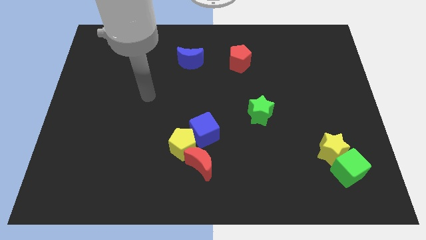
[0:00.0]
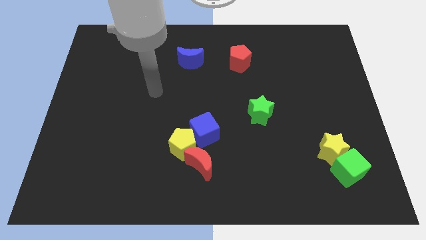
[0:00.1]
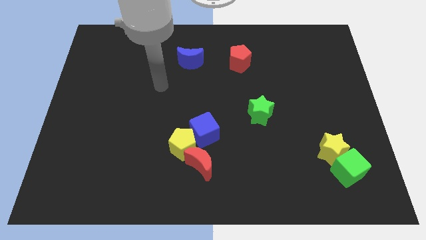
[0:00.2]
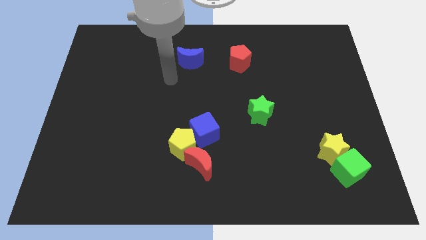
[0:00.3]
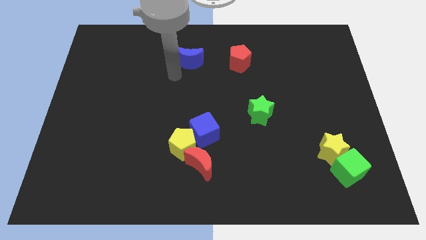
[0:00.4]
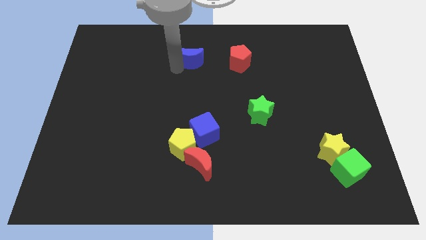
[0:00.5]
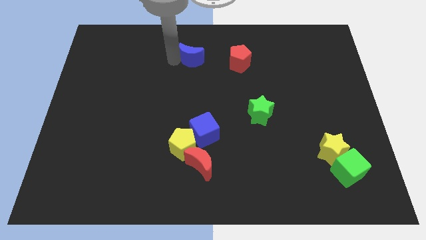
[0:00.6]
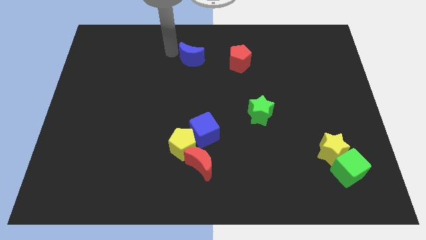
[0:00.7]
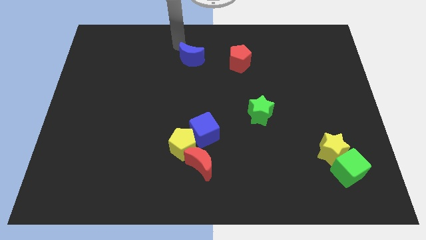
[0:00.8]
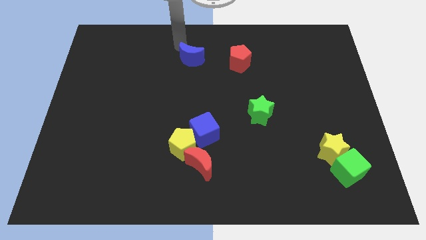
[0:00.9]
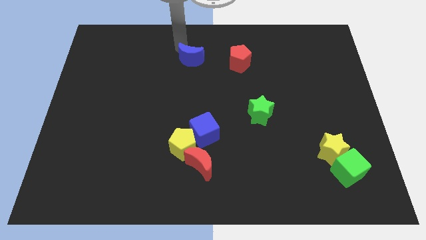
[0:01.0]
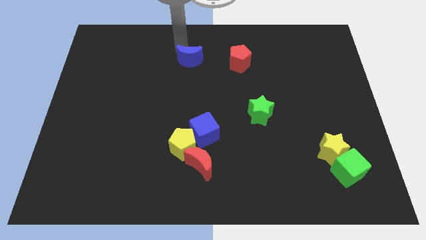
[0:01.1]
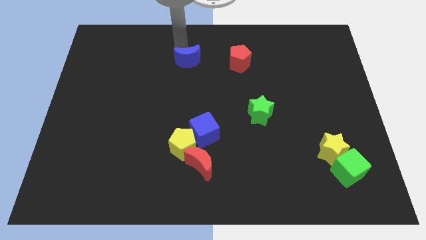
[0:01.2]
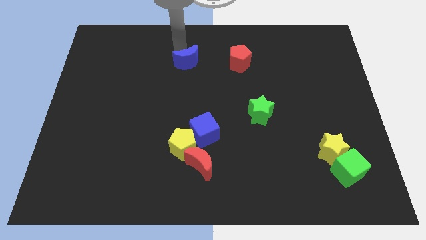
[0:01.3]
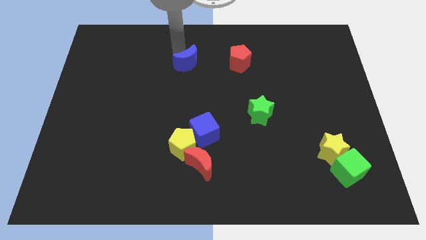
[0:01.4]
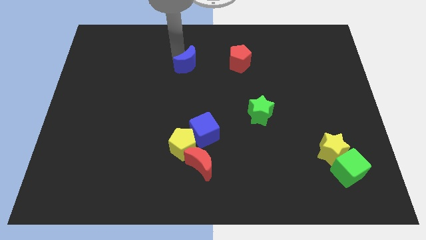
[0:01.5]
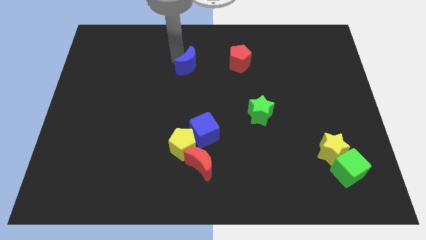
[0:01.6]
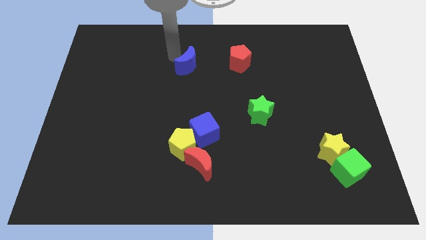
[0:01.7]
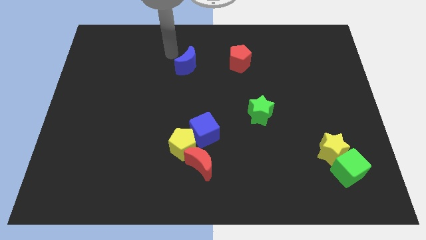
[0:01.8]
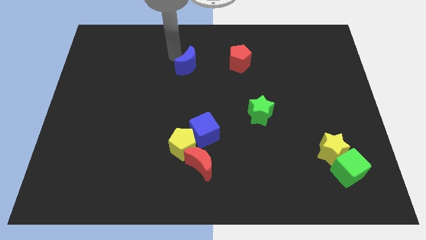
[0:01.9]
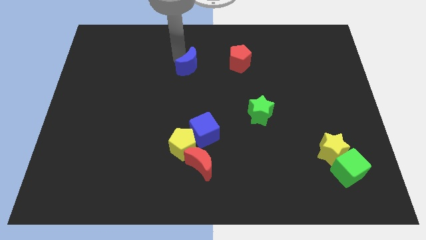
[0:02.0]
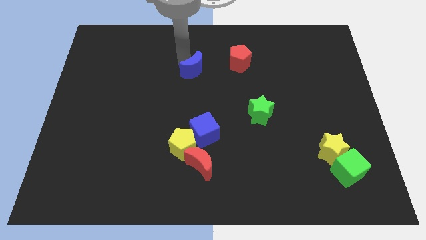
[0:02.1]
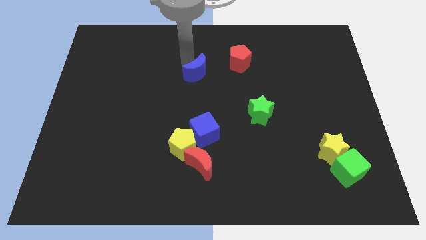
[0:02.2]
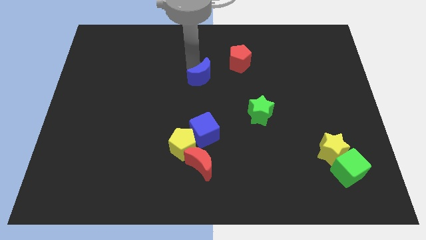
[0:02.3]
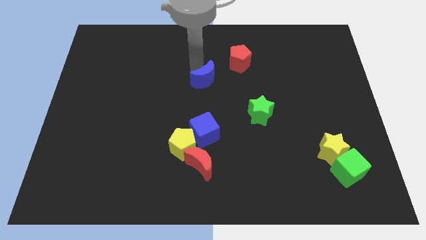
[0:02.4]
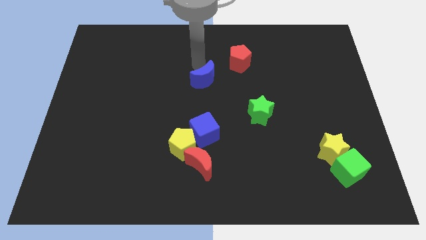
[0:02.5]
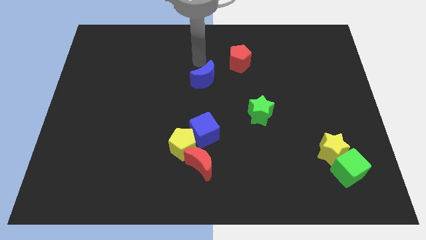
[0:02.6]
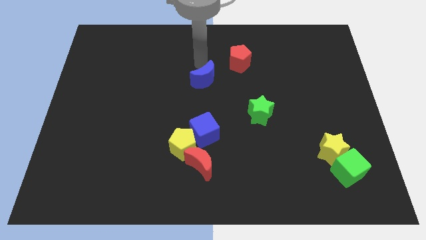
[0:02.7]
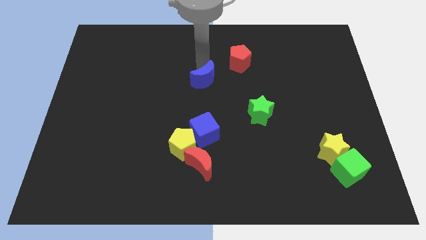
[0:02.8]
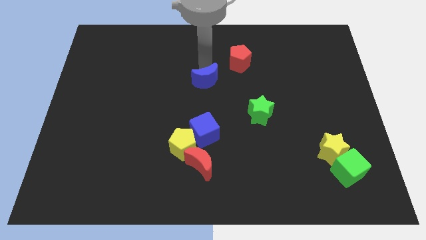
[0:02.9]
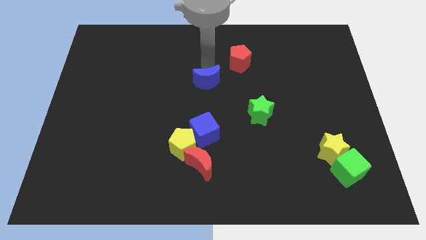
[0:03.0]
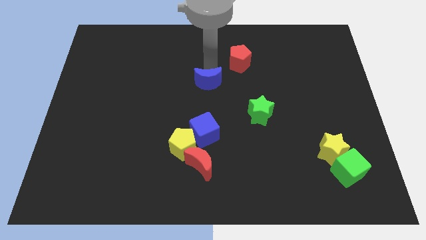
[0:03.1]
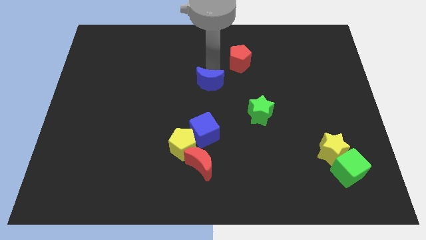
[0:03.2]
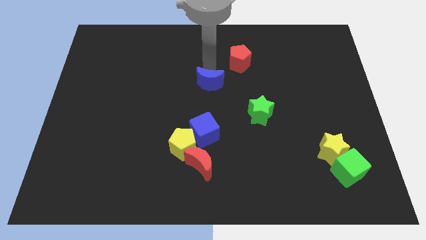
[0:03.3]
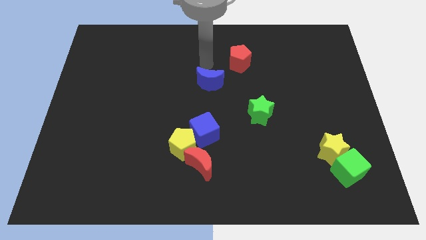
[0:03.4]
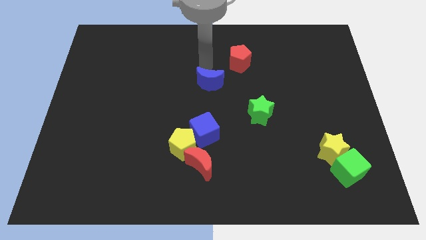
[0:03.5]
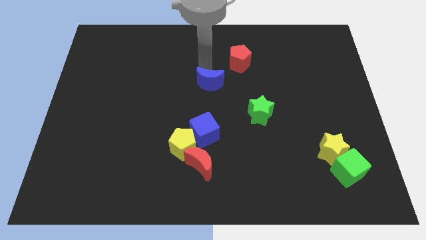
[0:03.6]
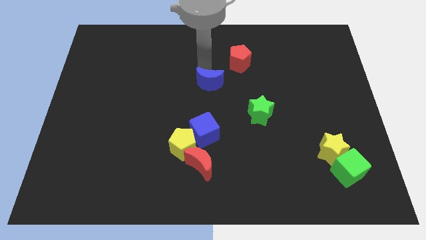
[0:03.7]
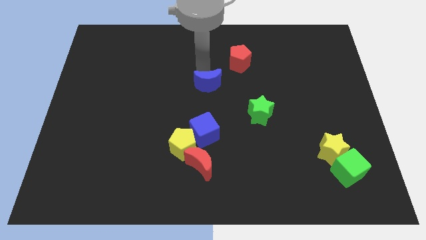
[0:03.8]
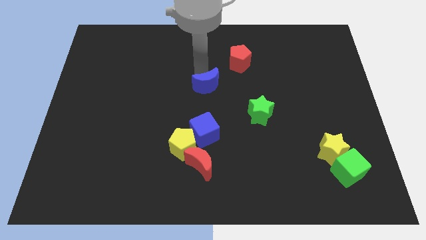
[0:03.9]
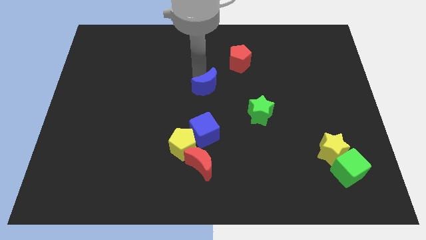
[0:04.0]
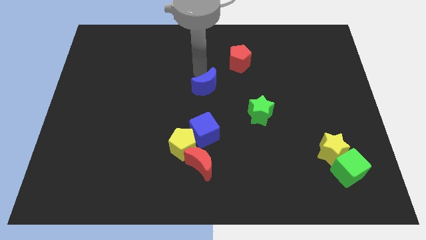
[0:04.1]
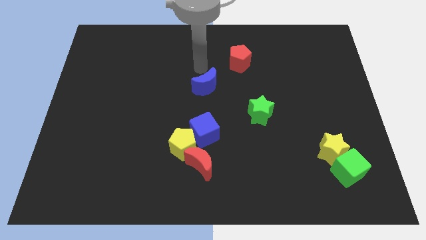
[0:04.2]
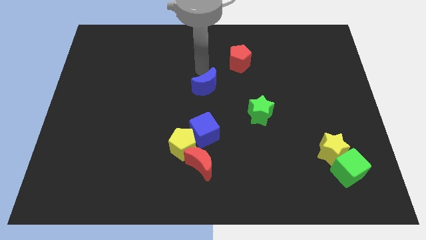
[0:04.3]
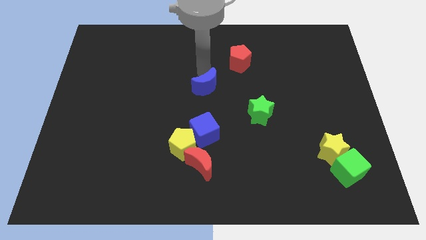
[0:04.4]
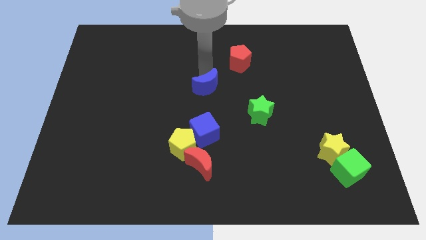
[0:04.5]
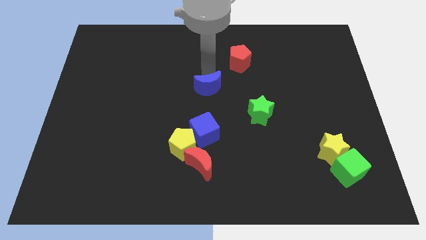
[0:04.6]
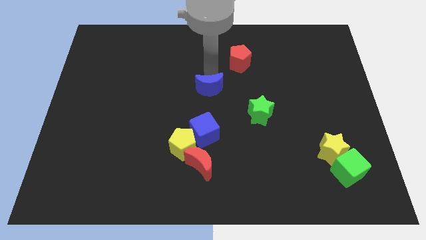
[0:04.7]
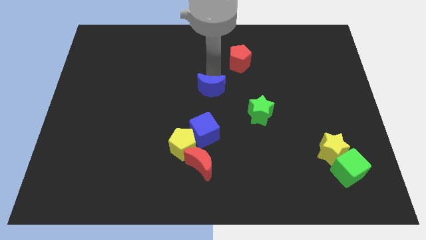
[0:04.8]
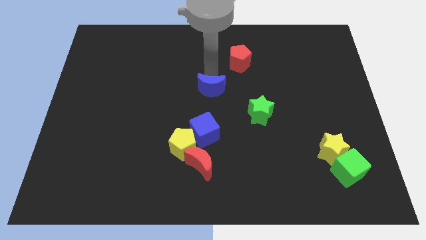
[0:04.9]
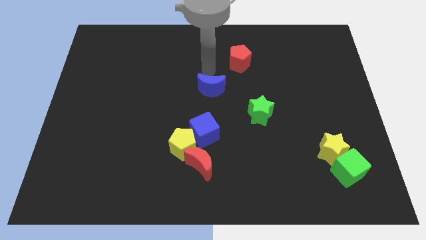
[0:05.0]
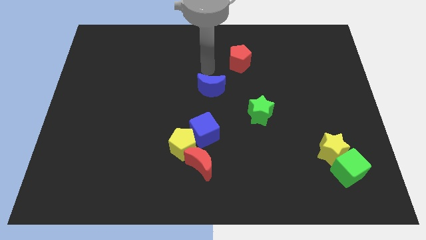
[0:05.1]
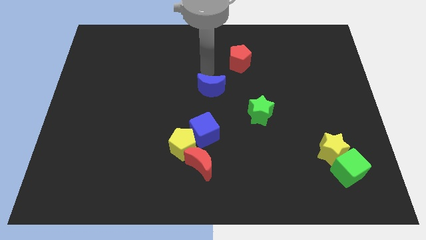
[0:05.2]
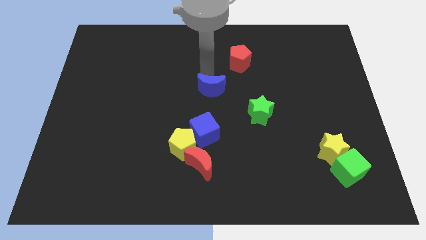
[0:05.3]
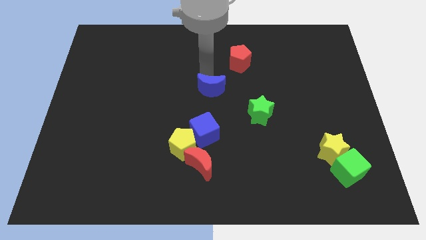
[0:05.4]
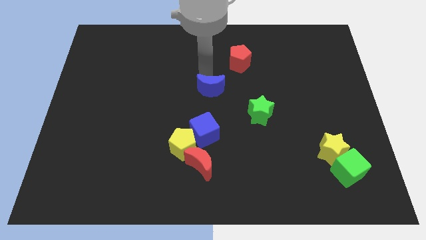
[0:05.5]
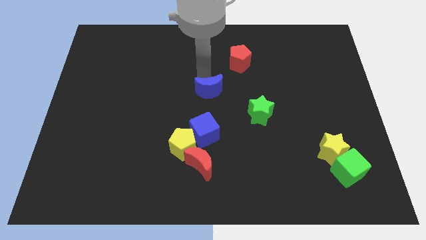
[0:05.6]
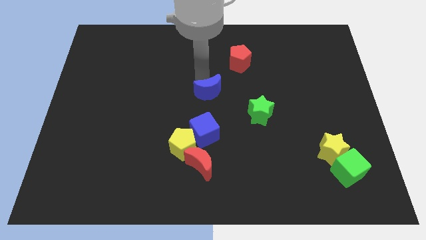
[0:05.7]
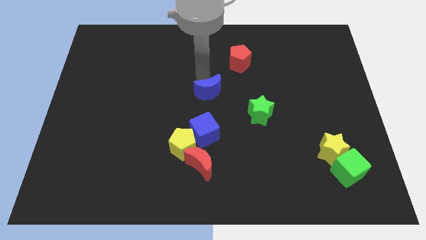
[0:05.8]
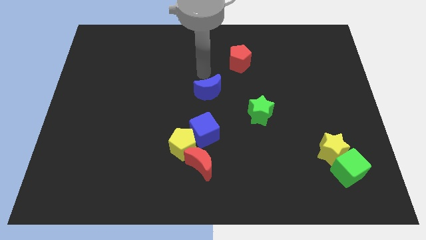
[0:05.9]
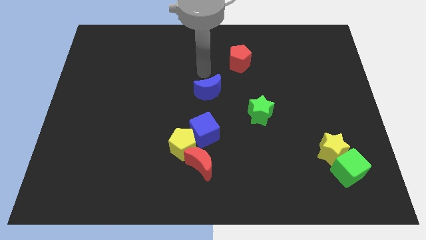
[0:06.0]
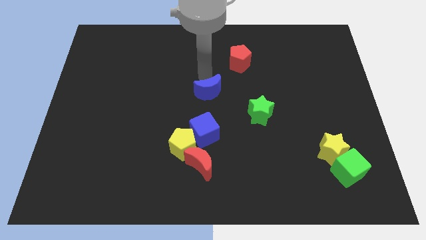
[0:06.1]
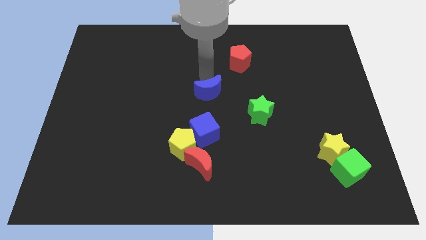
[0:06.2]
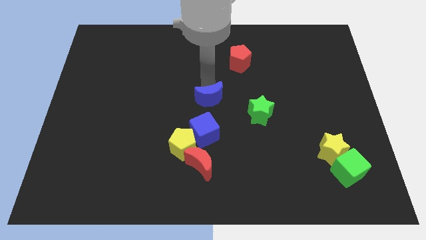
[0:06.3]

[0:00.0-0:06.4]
push the blue moon to the left of the green star

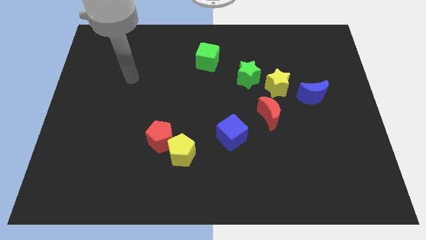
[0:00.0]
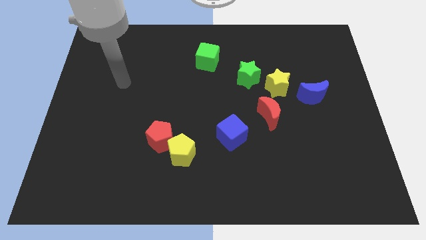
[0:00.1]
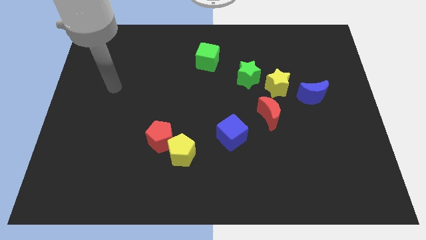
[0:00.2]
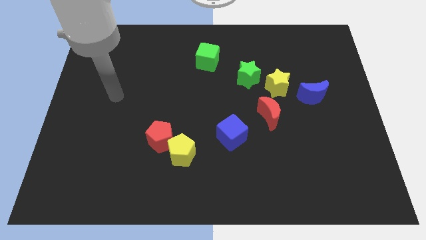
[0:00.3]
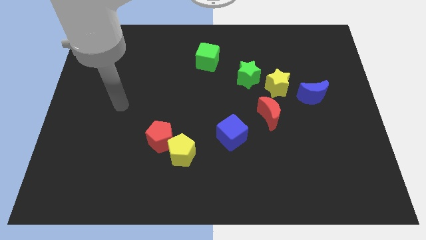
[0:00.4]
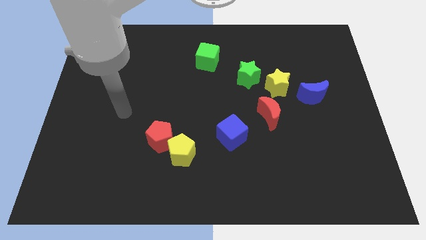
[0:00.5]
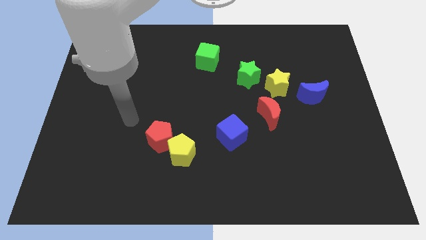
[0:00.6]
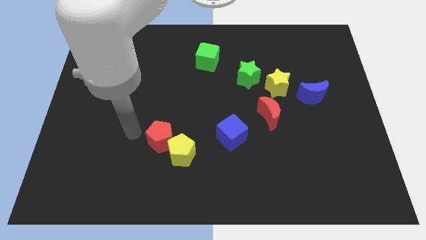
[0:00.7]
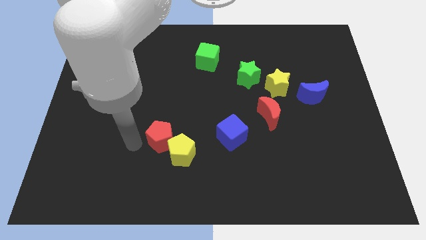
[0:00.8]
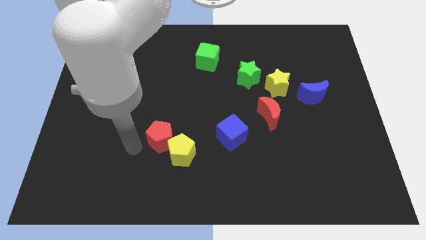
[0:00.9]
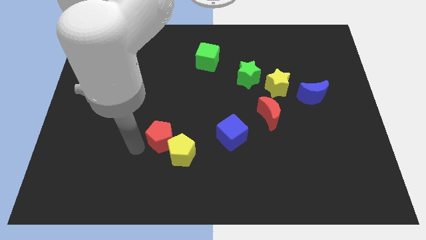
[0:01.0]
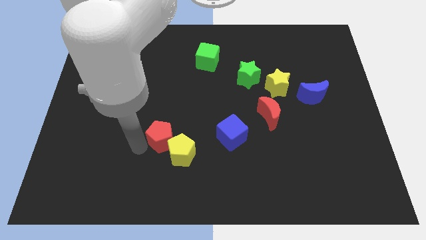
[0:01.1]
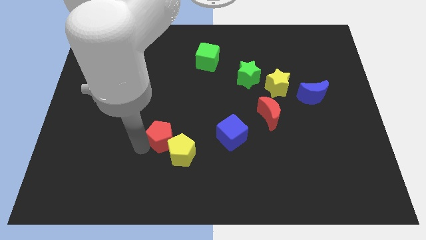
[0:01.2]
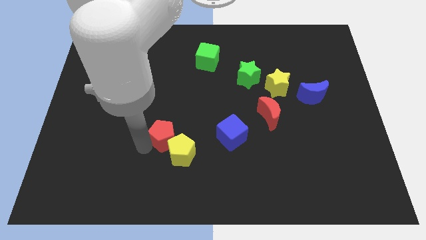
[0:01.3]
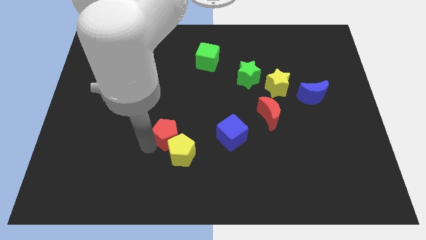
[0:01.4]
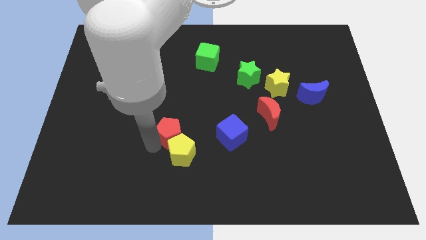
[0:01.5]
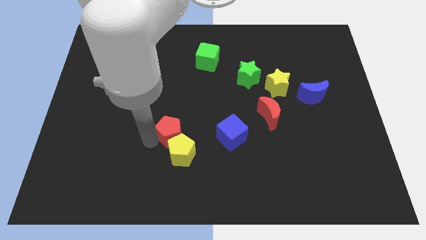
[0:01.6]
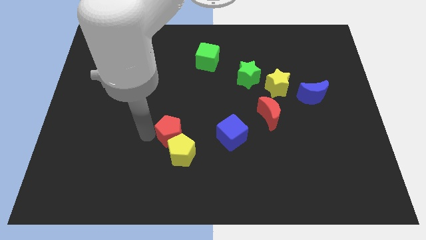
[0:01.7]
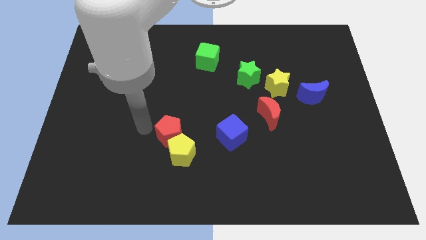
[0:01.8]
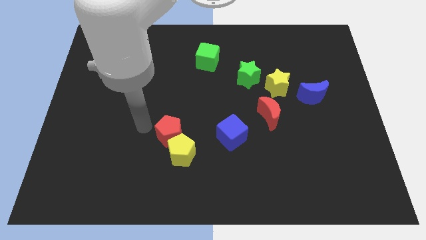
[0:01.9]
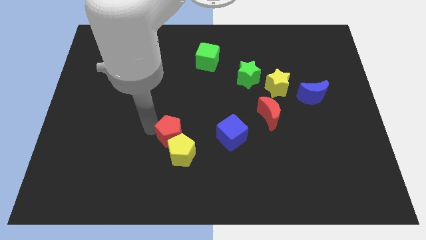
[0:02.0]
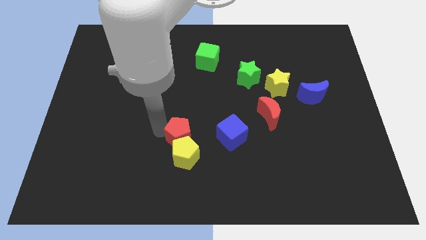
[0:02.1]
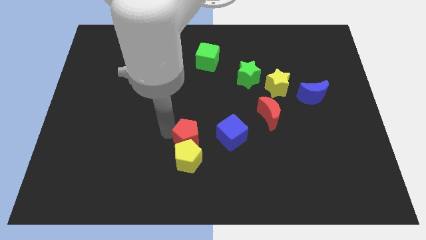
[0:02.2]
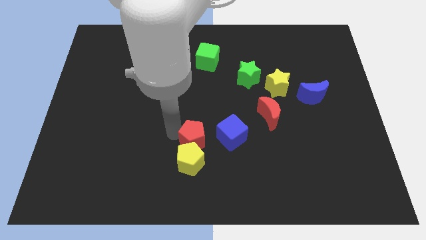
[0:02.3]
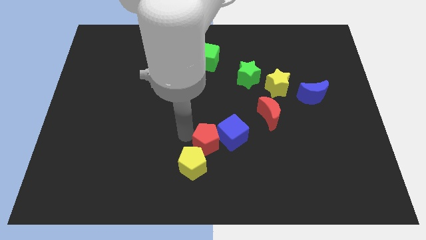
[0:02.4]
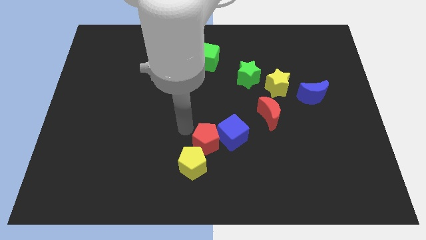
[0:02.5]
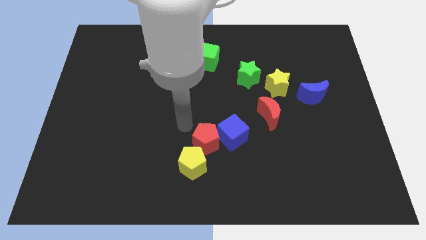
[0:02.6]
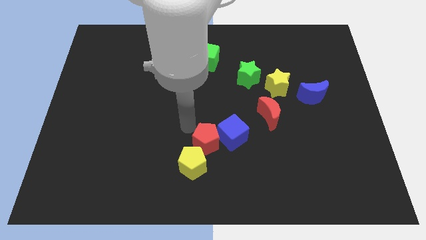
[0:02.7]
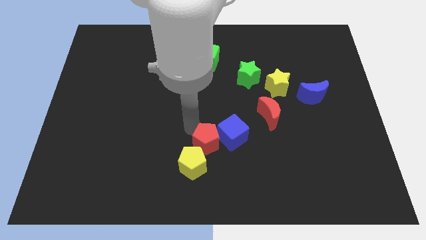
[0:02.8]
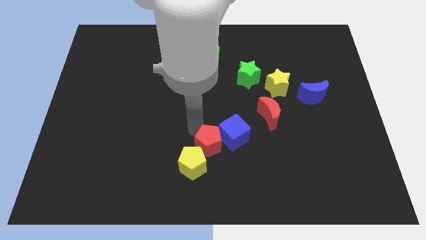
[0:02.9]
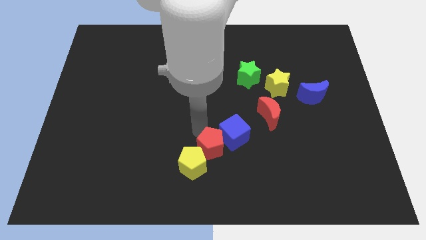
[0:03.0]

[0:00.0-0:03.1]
push the red pentagon to the right of the yellow pentagon
